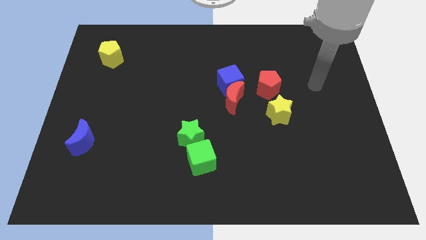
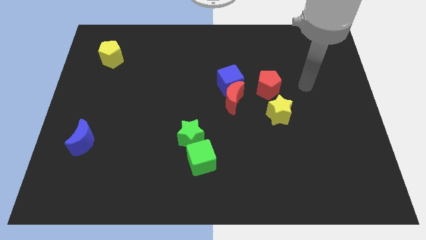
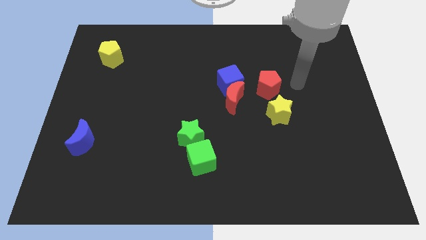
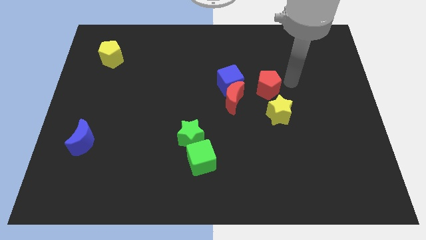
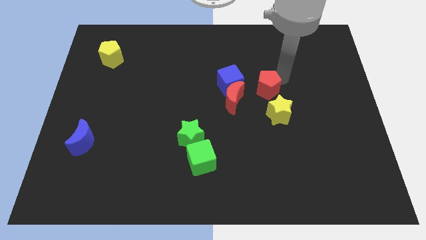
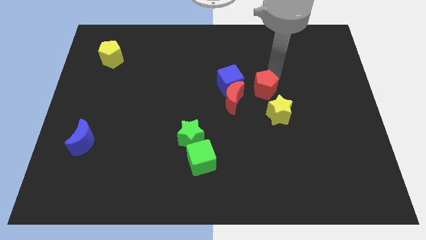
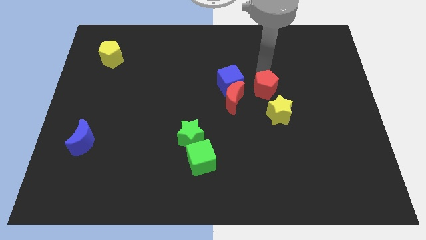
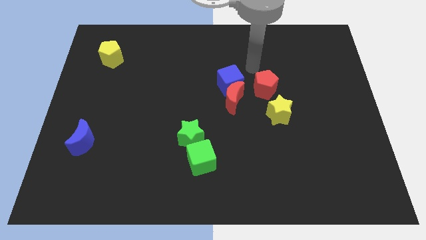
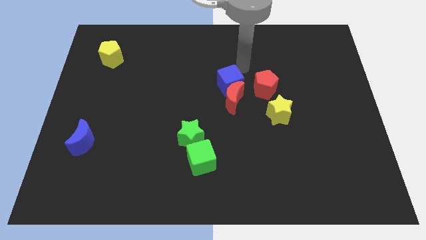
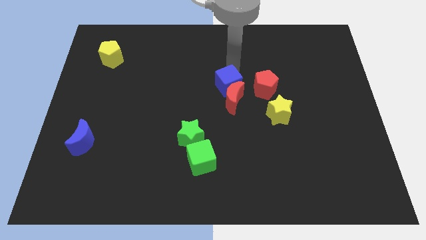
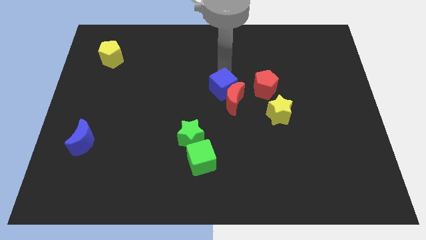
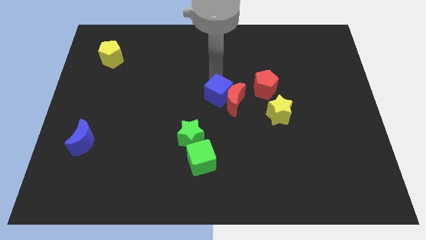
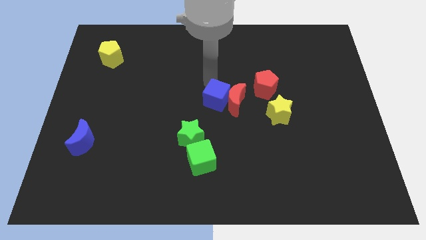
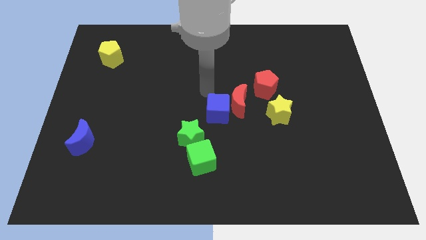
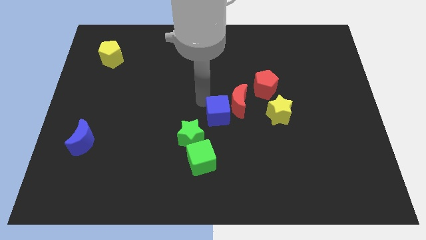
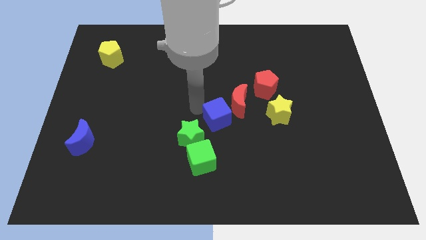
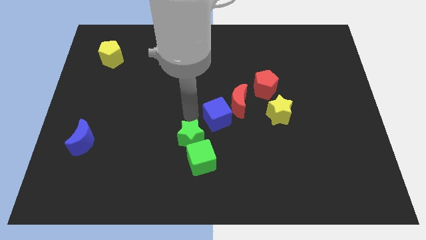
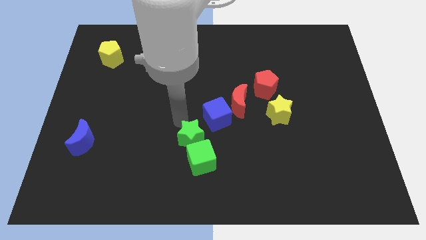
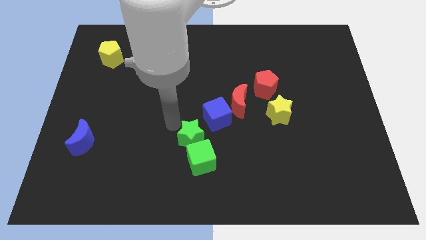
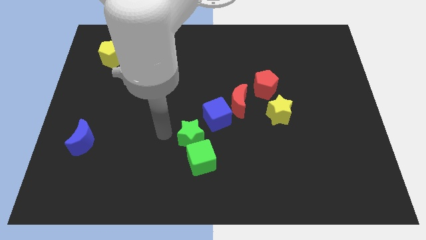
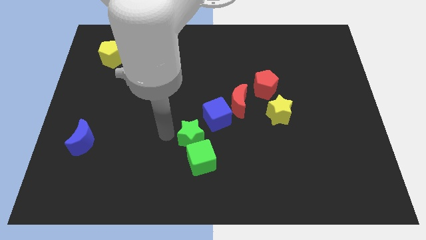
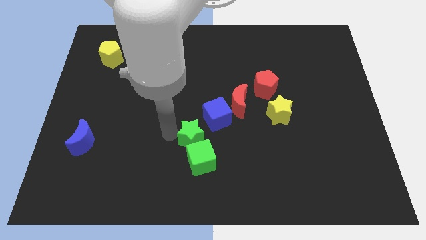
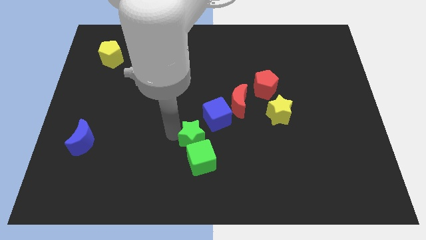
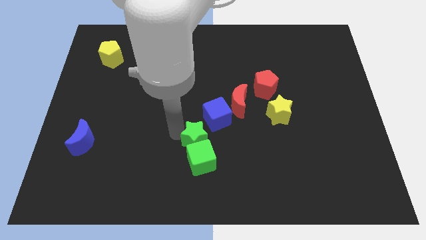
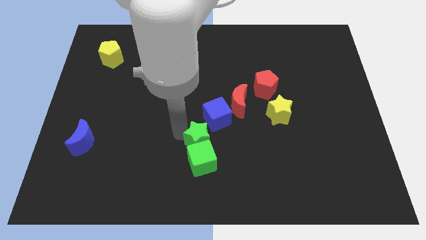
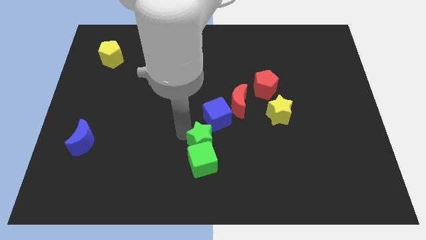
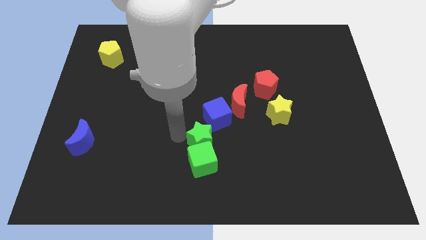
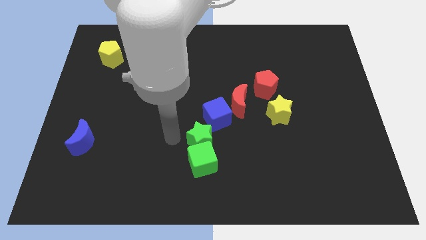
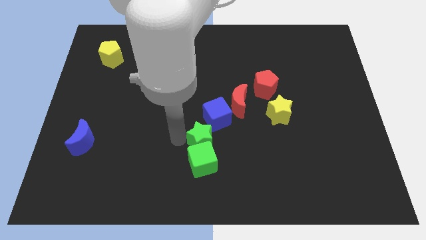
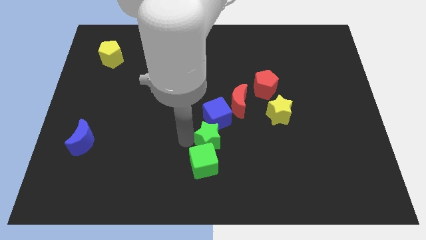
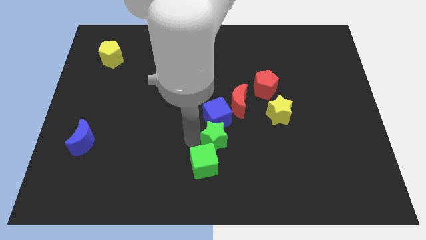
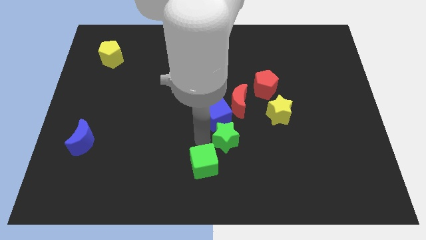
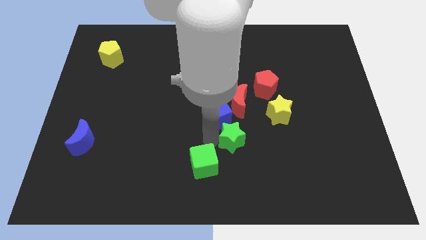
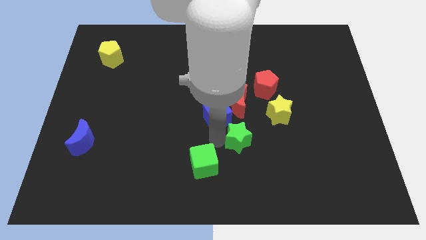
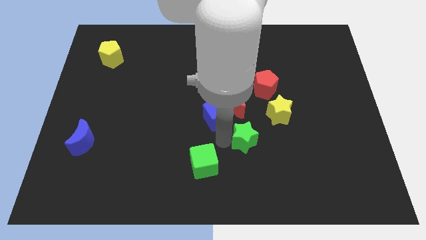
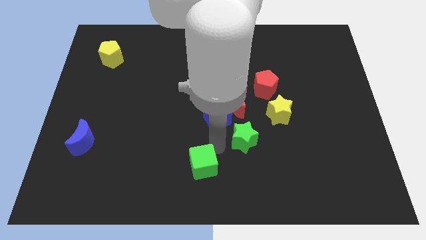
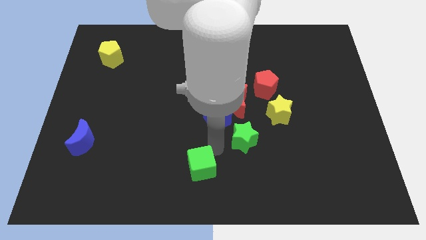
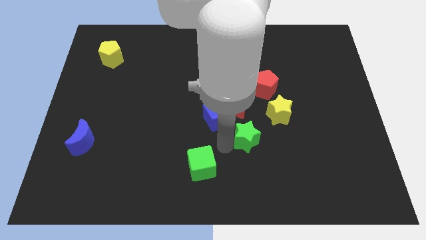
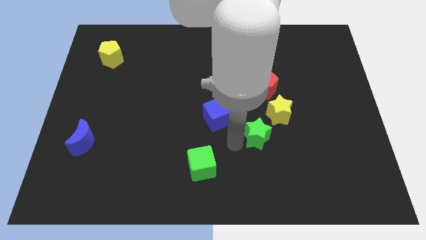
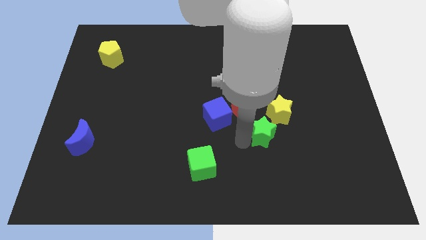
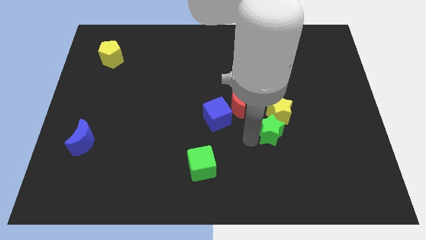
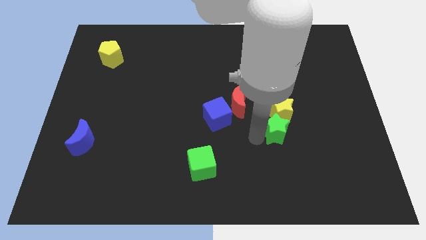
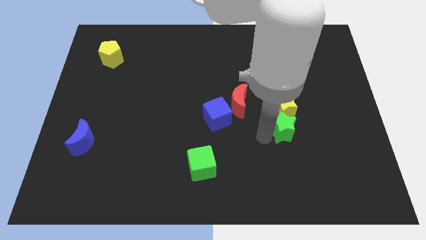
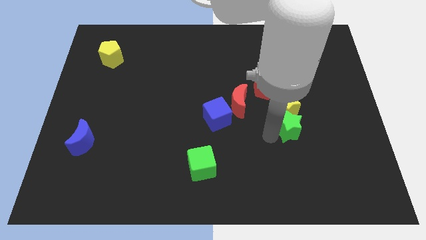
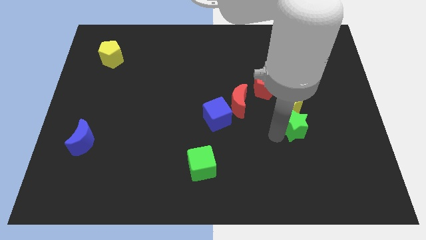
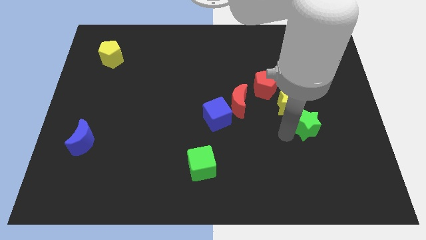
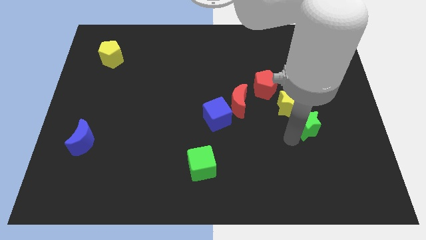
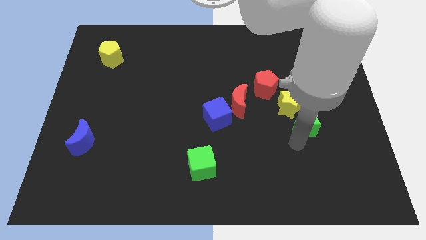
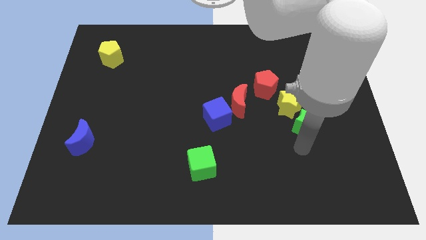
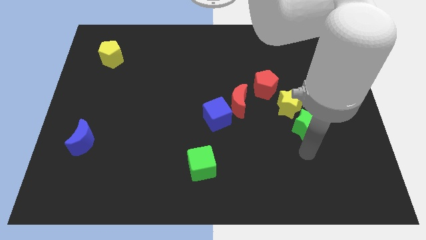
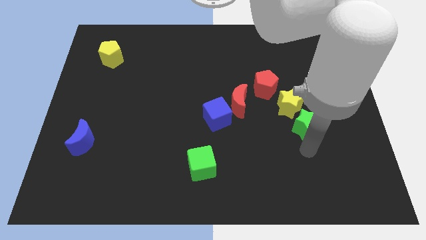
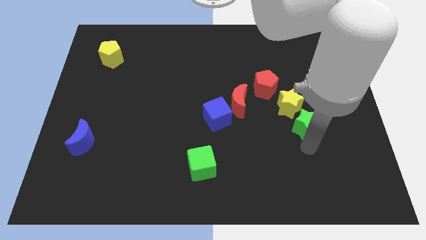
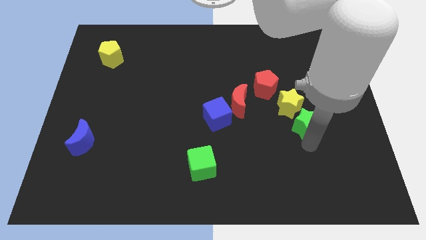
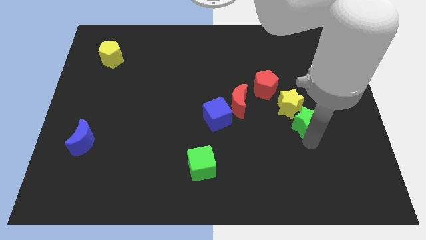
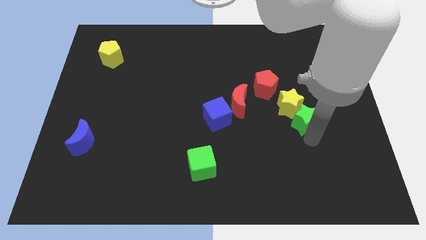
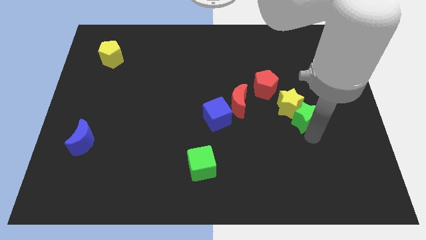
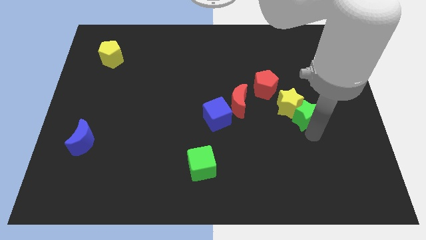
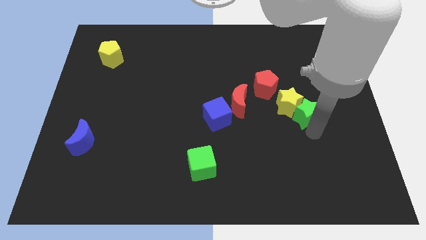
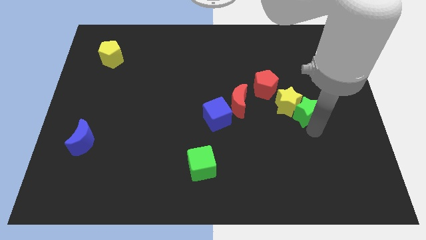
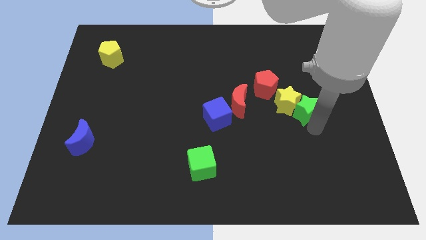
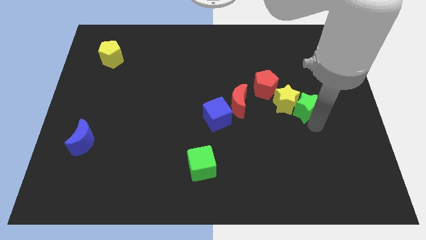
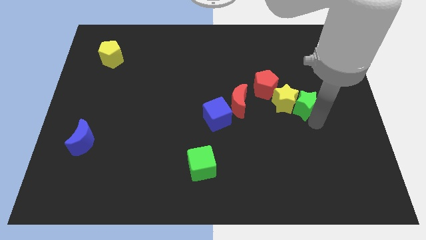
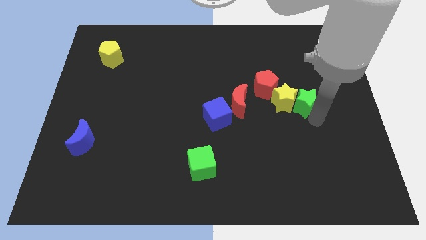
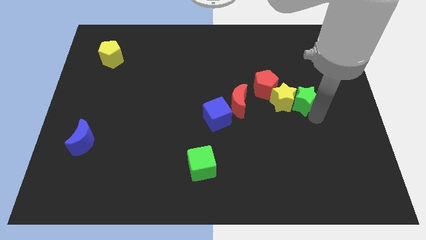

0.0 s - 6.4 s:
put the green star right of the red pentagon
